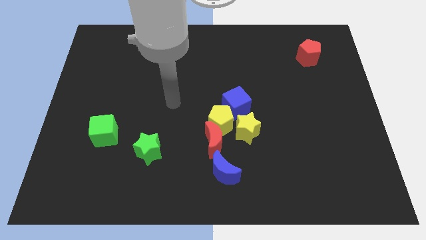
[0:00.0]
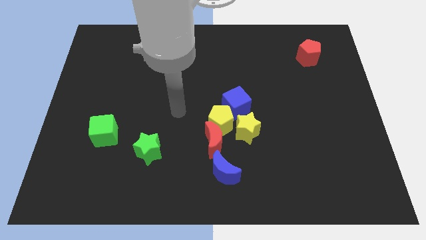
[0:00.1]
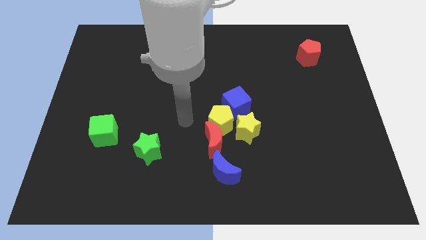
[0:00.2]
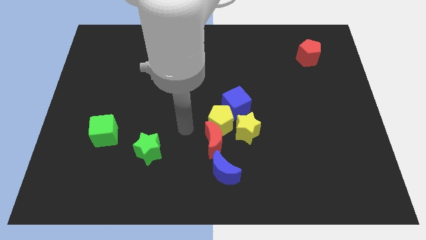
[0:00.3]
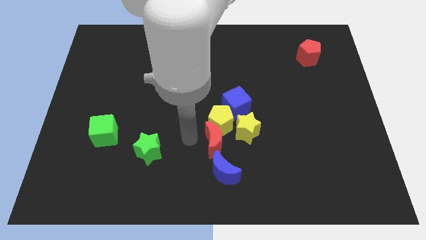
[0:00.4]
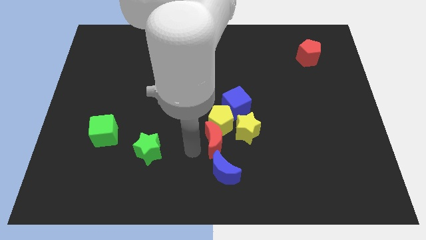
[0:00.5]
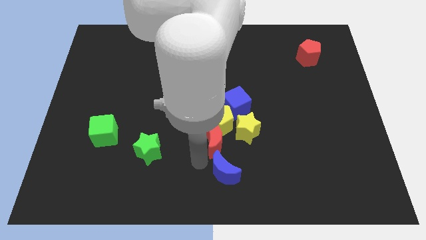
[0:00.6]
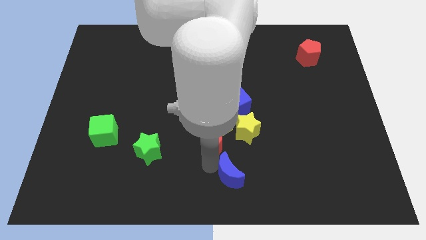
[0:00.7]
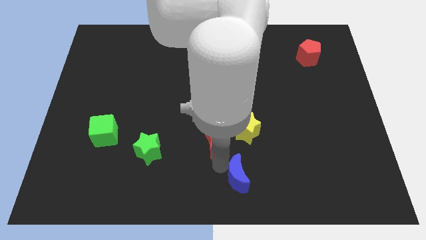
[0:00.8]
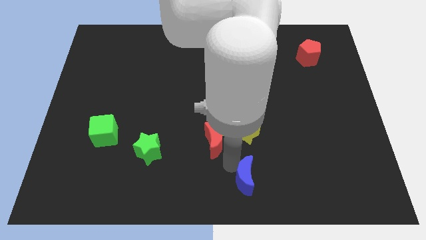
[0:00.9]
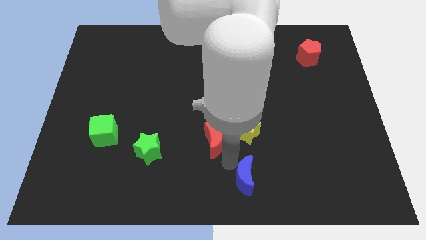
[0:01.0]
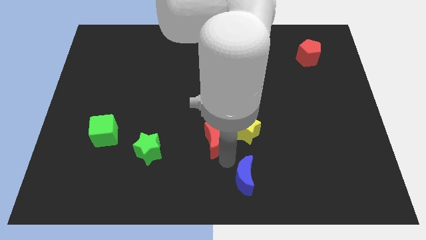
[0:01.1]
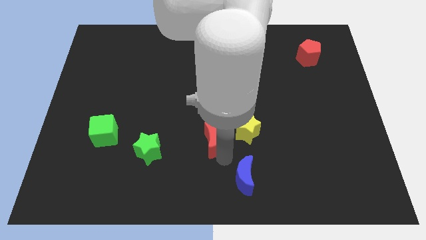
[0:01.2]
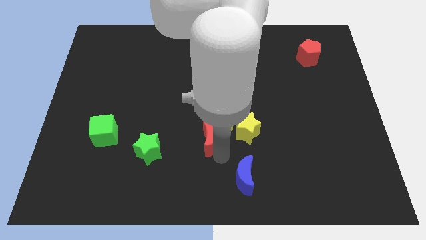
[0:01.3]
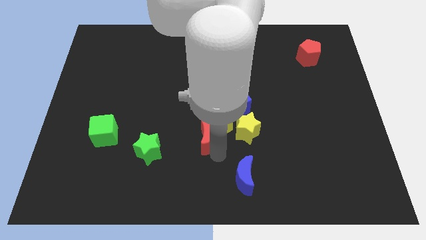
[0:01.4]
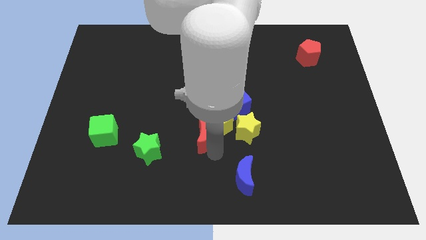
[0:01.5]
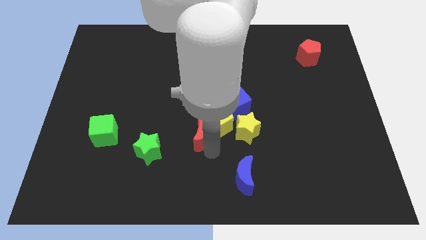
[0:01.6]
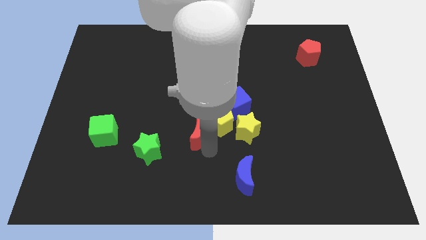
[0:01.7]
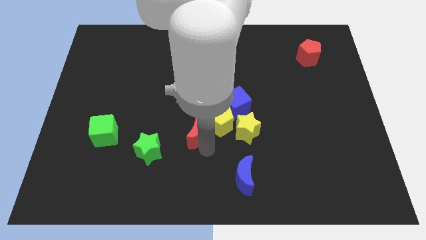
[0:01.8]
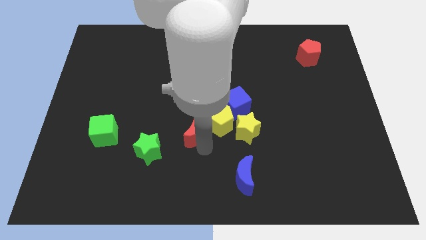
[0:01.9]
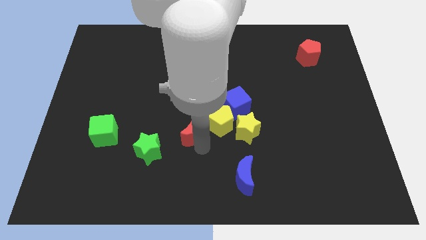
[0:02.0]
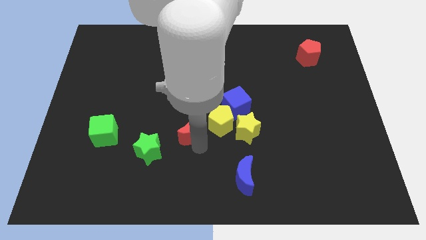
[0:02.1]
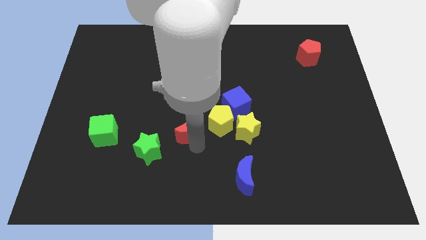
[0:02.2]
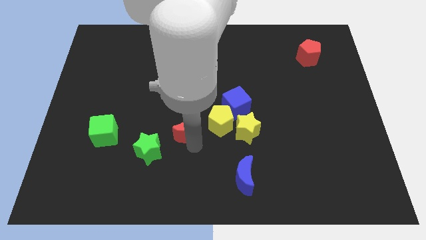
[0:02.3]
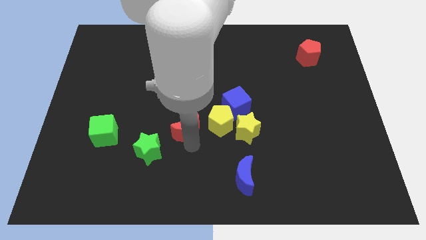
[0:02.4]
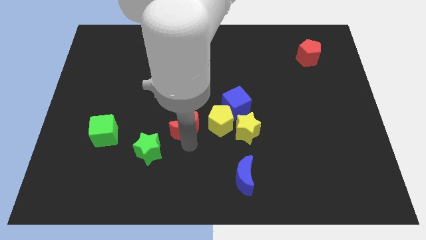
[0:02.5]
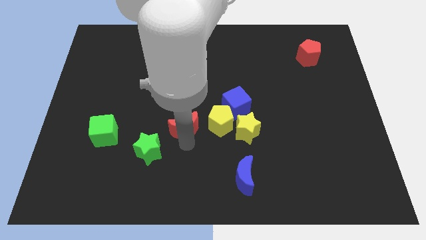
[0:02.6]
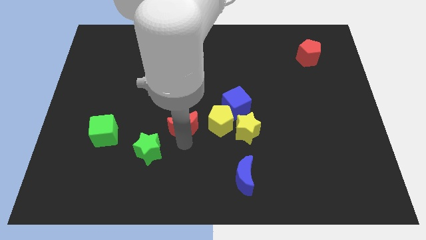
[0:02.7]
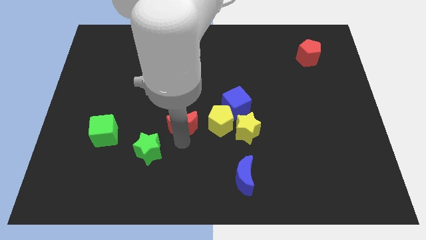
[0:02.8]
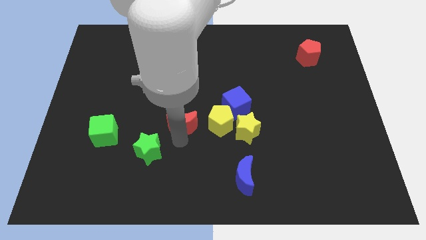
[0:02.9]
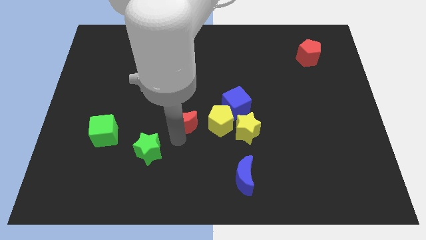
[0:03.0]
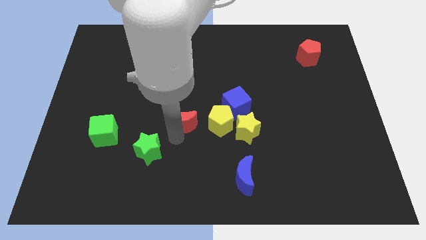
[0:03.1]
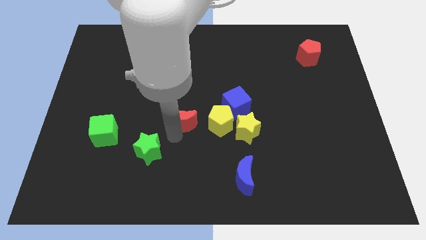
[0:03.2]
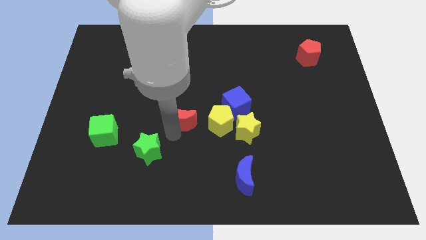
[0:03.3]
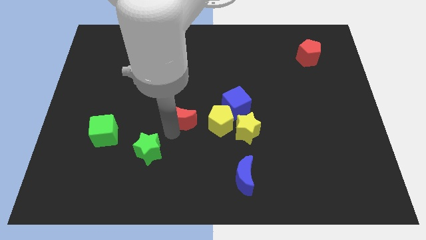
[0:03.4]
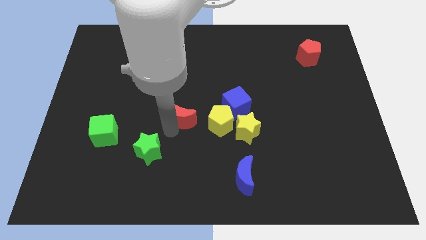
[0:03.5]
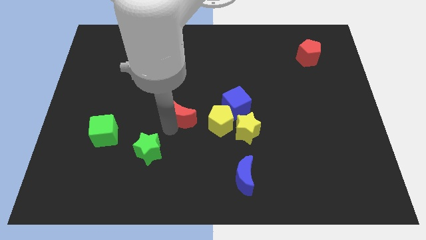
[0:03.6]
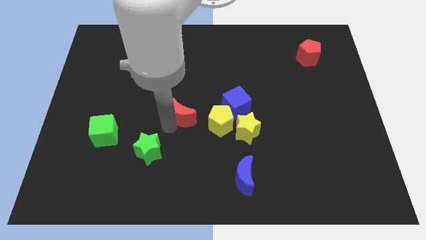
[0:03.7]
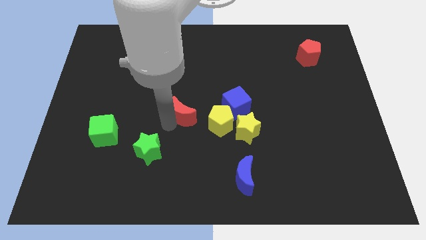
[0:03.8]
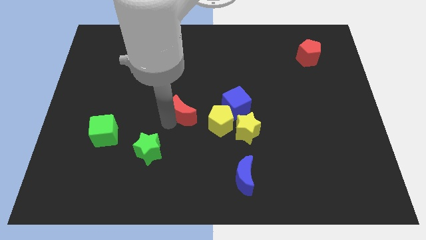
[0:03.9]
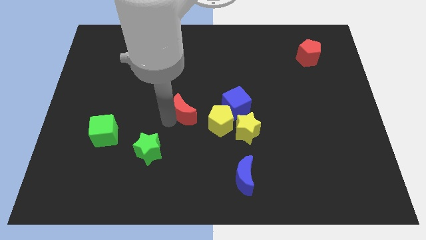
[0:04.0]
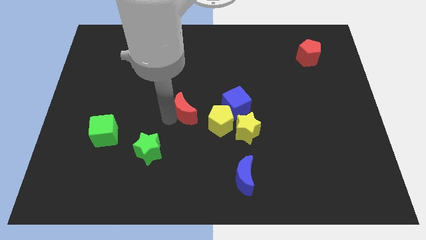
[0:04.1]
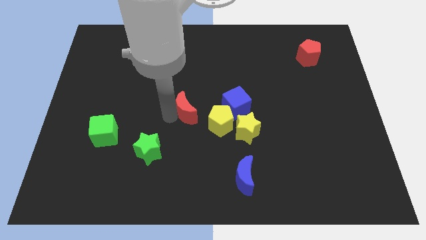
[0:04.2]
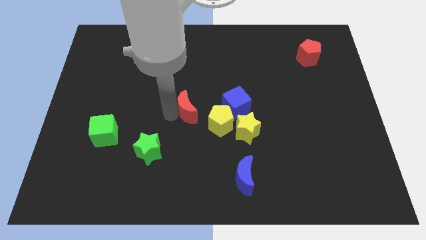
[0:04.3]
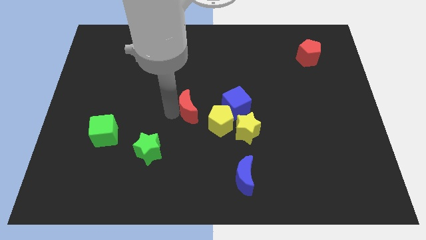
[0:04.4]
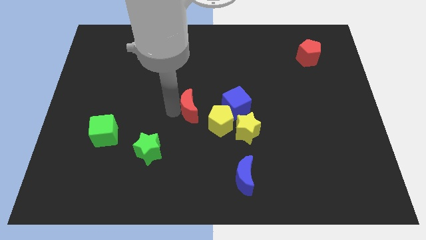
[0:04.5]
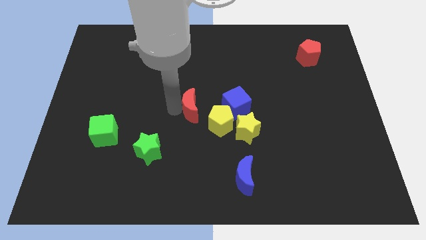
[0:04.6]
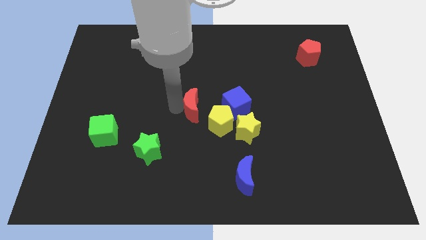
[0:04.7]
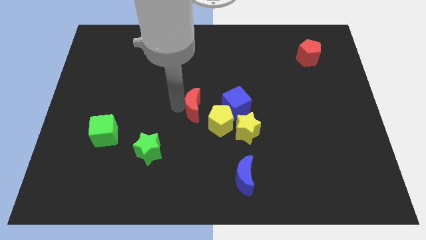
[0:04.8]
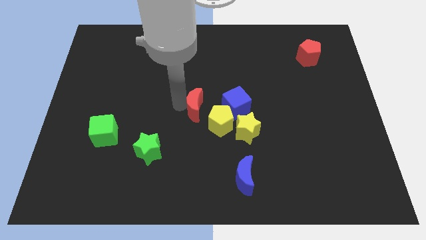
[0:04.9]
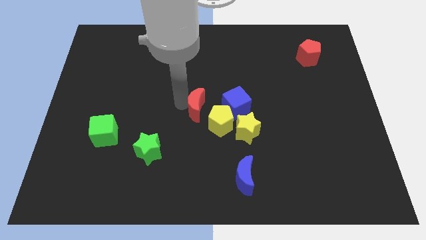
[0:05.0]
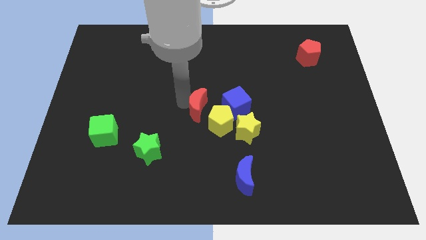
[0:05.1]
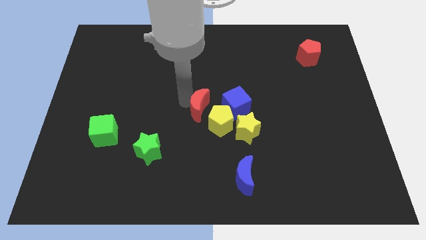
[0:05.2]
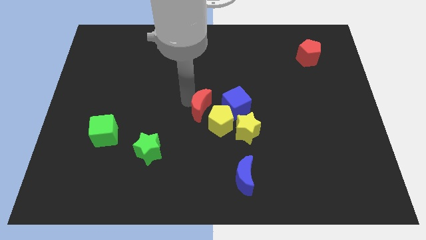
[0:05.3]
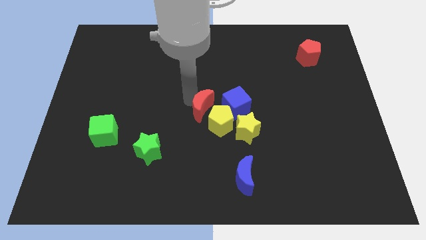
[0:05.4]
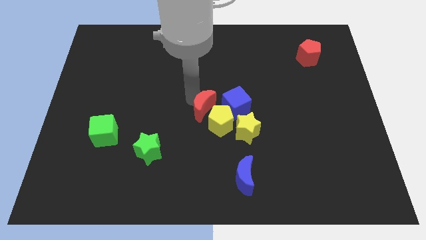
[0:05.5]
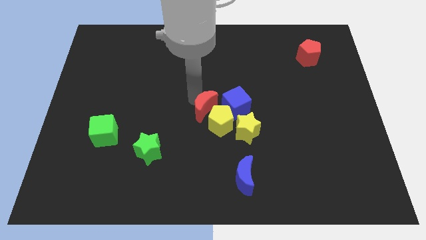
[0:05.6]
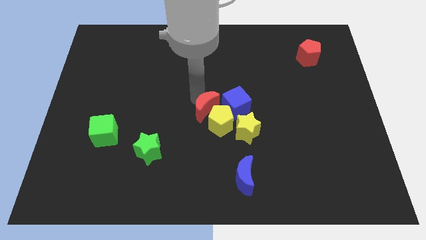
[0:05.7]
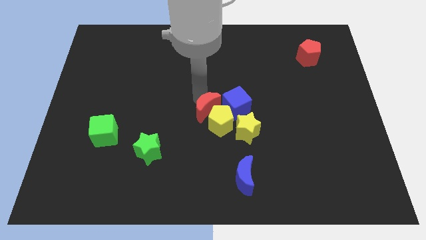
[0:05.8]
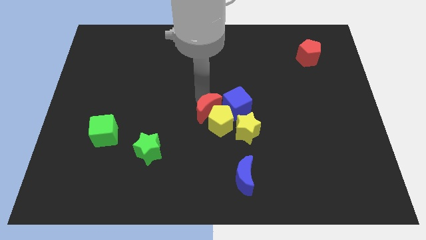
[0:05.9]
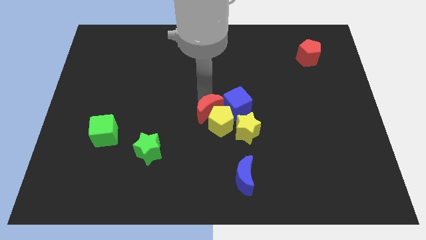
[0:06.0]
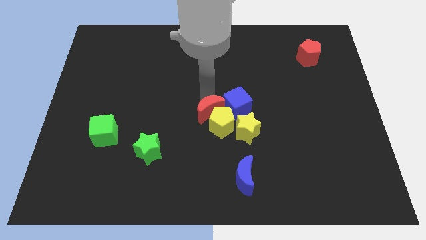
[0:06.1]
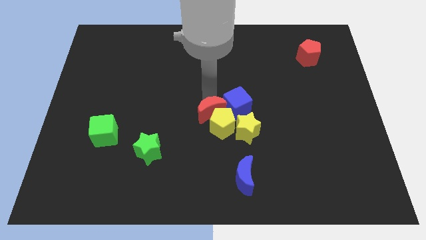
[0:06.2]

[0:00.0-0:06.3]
push the red moon next to the blue cube

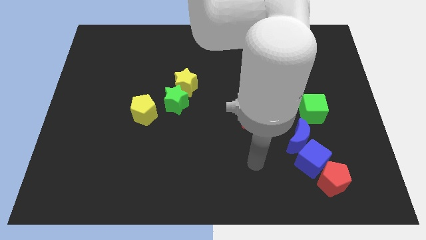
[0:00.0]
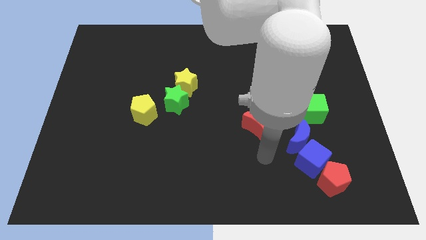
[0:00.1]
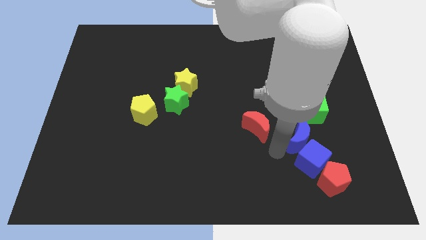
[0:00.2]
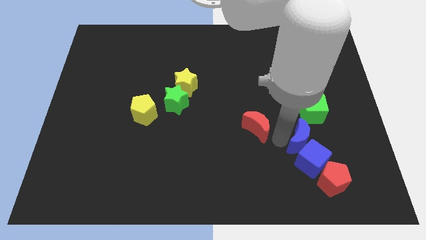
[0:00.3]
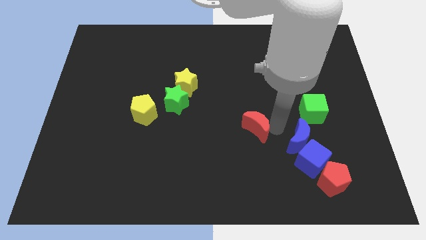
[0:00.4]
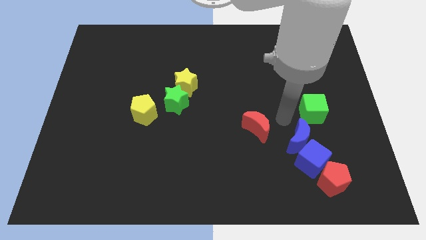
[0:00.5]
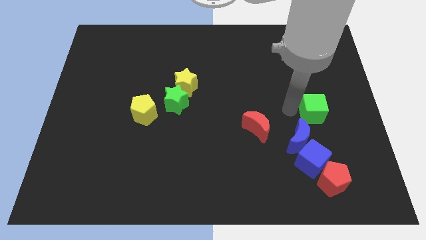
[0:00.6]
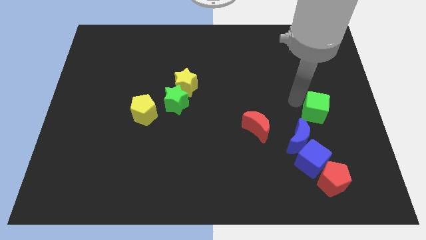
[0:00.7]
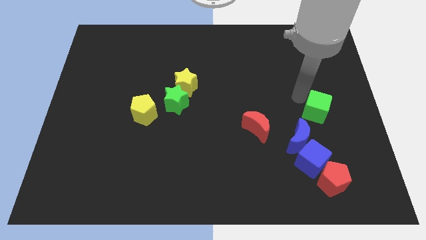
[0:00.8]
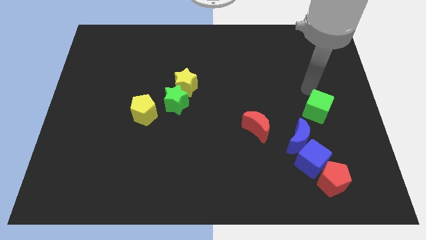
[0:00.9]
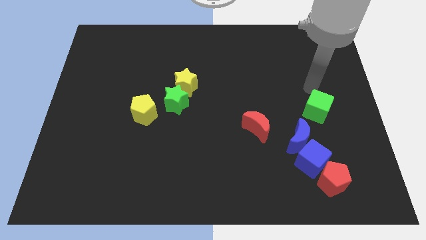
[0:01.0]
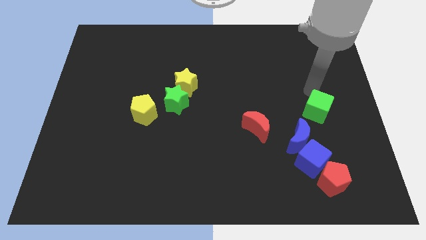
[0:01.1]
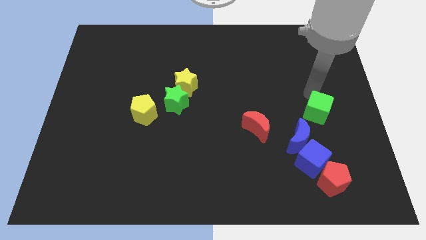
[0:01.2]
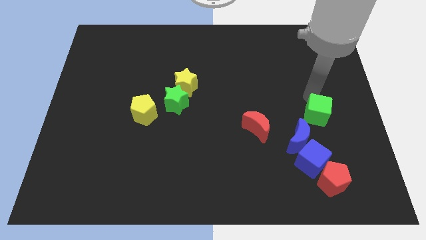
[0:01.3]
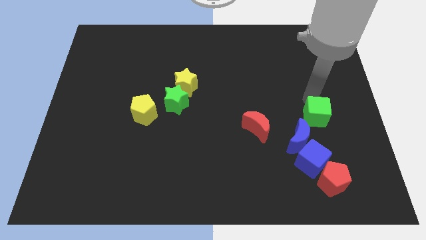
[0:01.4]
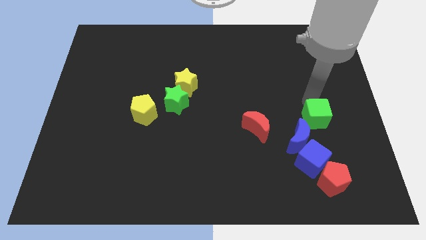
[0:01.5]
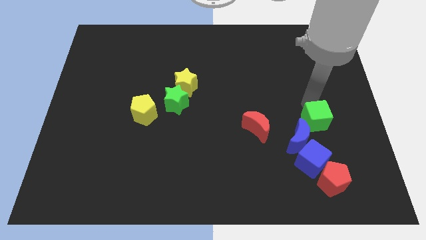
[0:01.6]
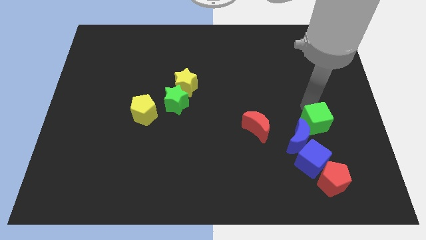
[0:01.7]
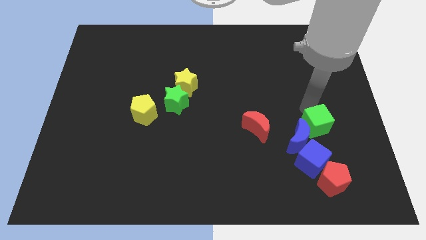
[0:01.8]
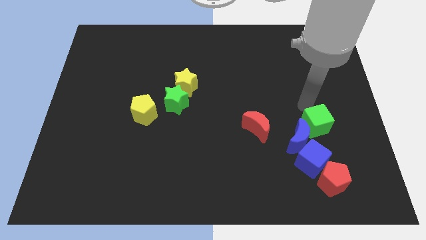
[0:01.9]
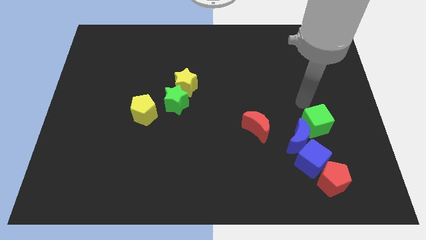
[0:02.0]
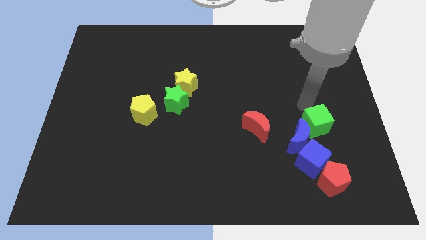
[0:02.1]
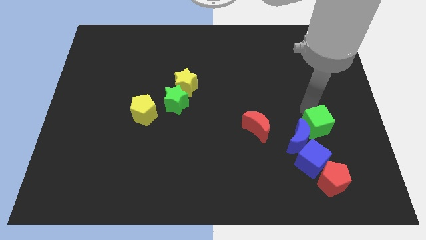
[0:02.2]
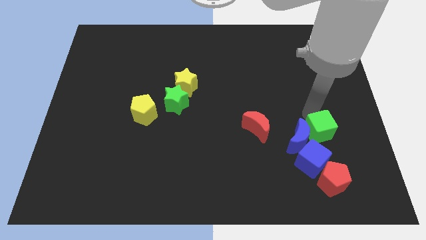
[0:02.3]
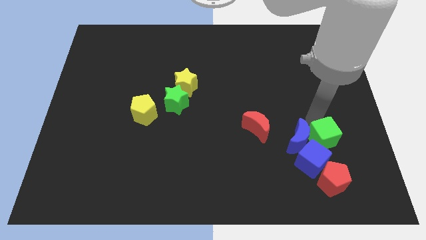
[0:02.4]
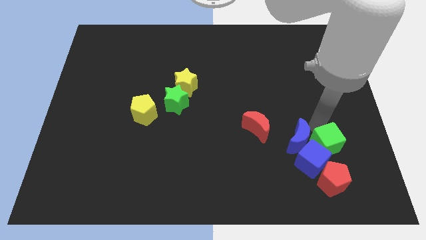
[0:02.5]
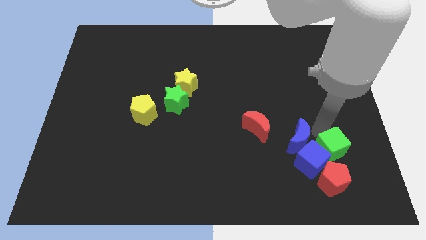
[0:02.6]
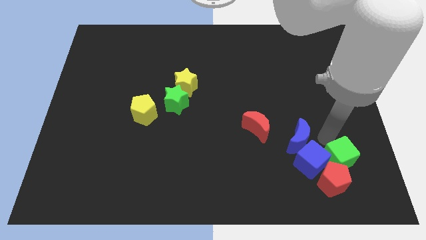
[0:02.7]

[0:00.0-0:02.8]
put the green cube close to the red pentagon
